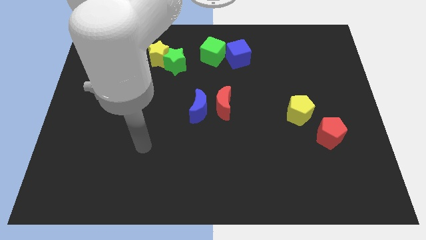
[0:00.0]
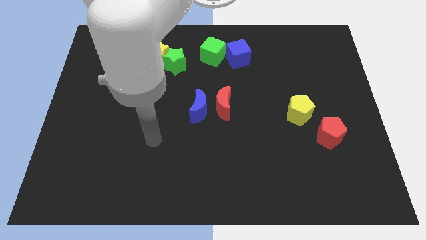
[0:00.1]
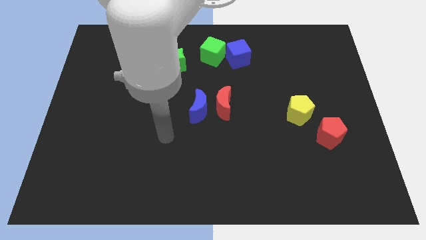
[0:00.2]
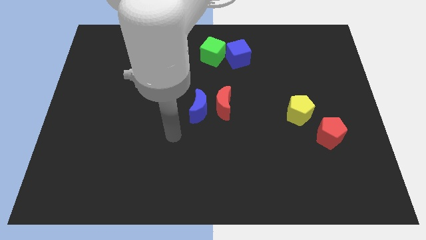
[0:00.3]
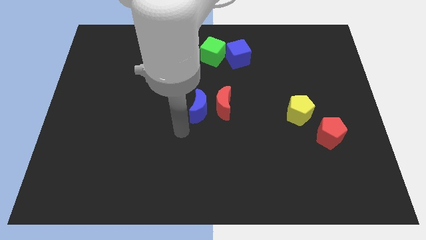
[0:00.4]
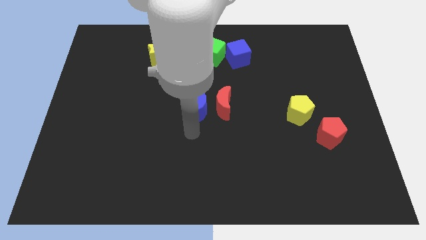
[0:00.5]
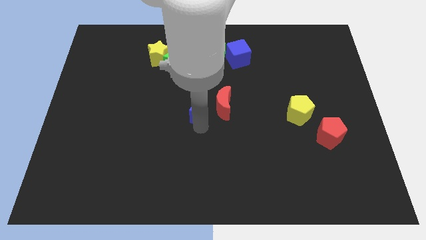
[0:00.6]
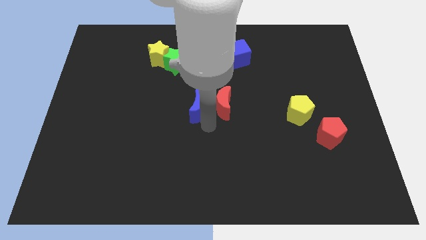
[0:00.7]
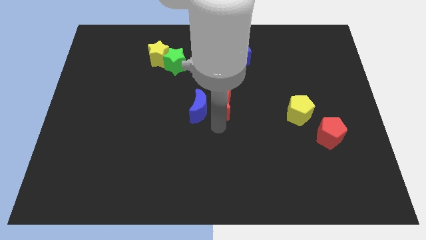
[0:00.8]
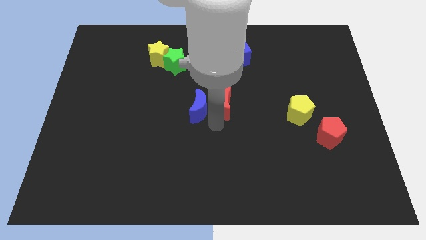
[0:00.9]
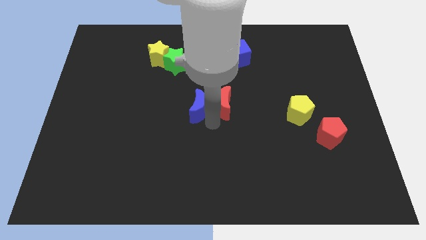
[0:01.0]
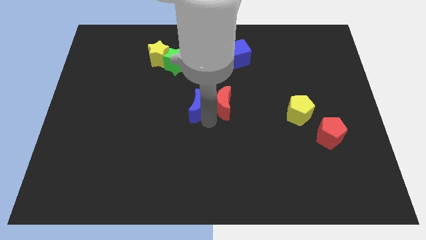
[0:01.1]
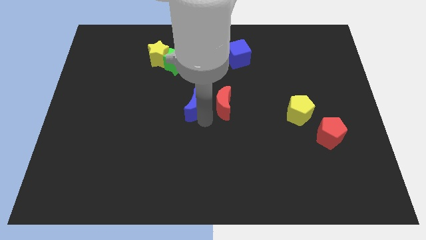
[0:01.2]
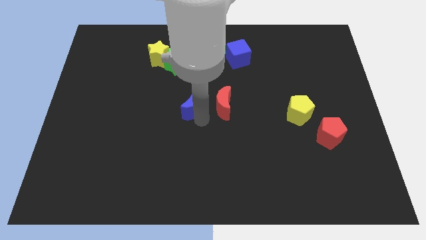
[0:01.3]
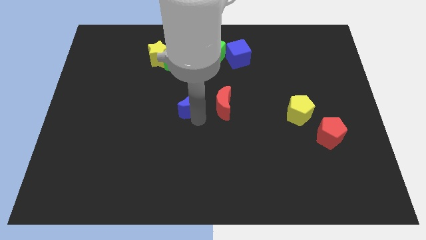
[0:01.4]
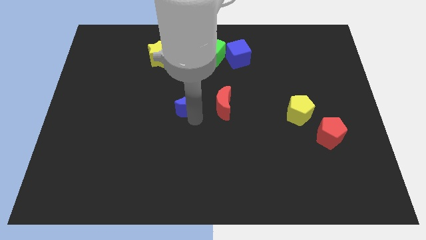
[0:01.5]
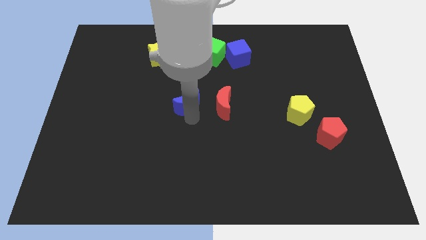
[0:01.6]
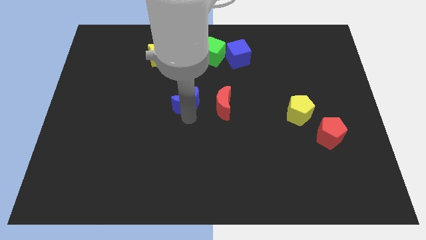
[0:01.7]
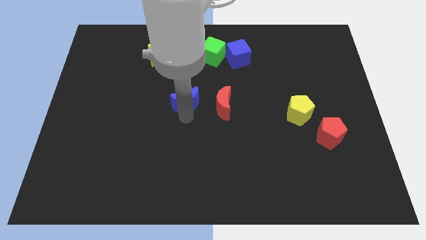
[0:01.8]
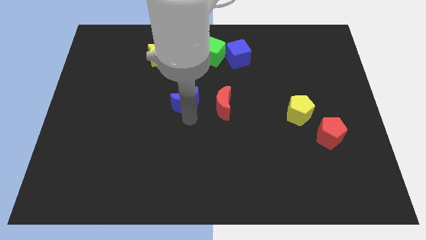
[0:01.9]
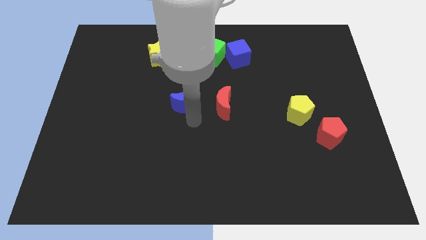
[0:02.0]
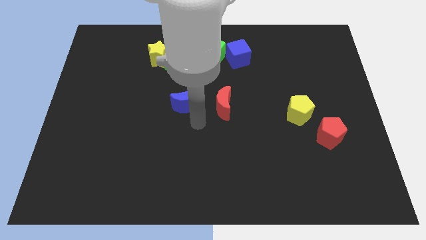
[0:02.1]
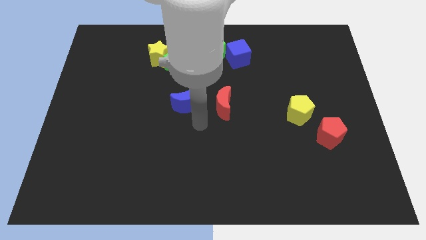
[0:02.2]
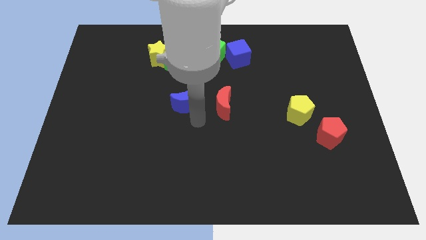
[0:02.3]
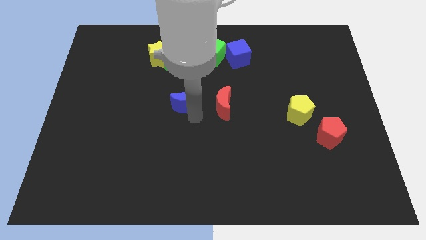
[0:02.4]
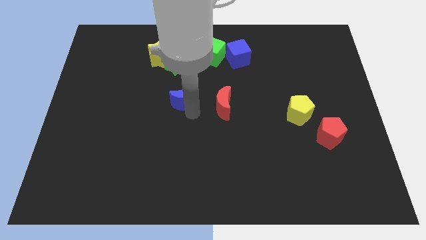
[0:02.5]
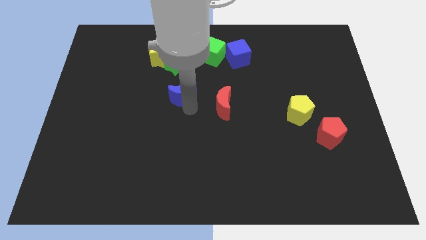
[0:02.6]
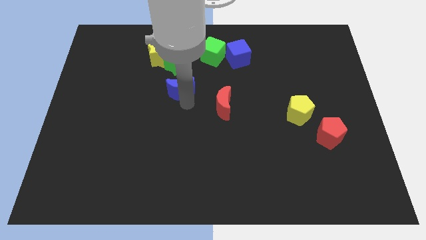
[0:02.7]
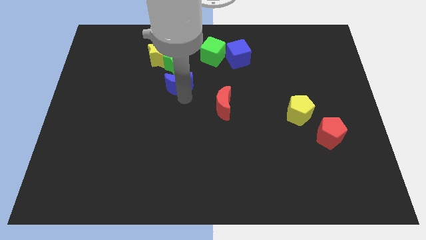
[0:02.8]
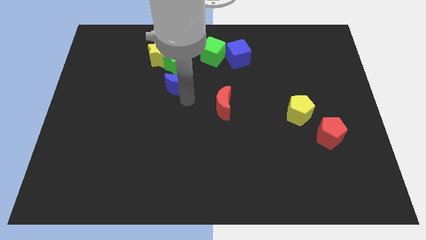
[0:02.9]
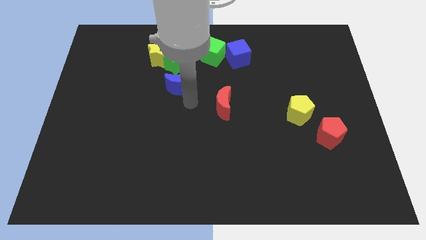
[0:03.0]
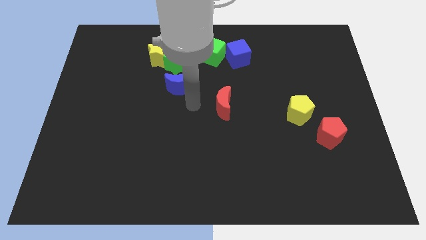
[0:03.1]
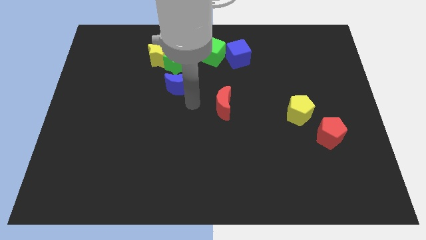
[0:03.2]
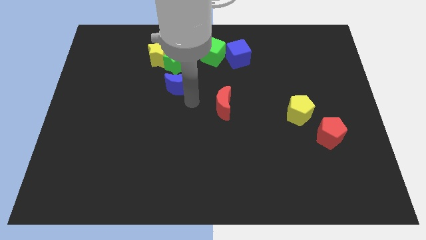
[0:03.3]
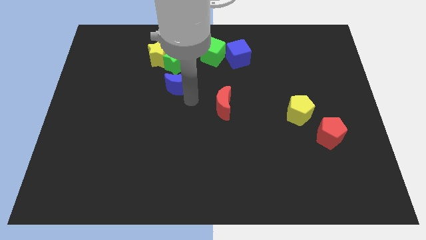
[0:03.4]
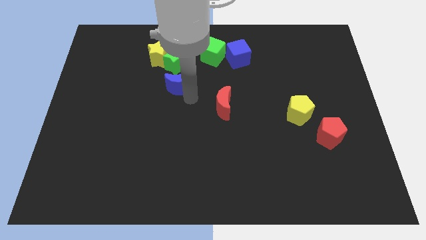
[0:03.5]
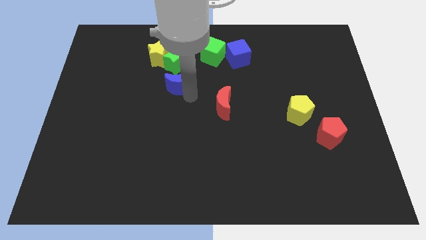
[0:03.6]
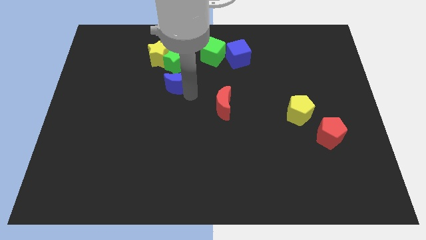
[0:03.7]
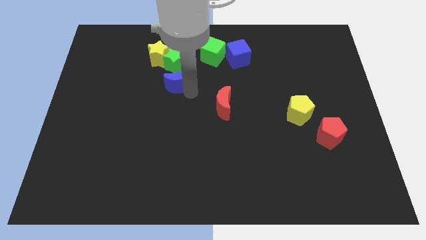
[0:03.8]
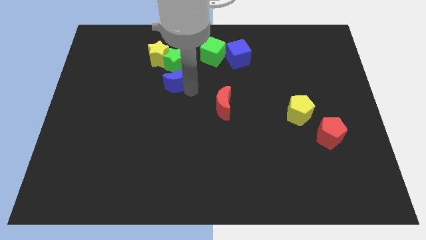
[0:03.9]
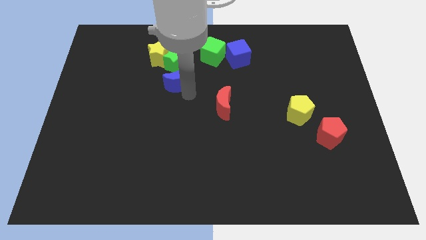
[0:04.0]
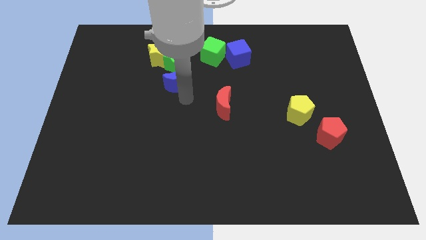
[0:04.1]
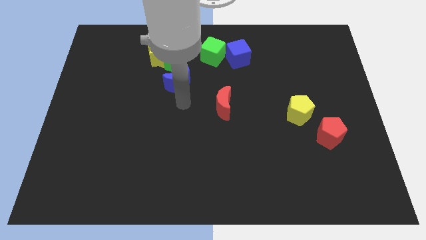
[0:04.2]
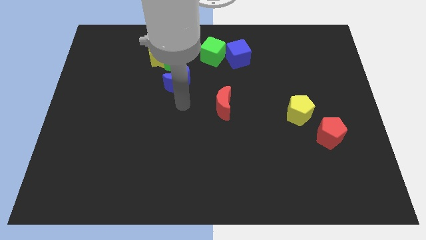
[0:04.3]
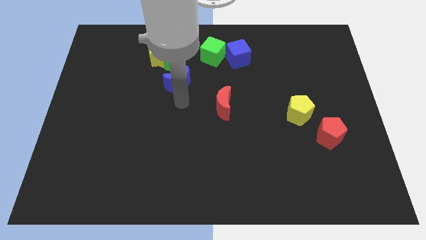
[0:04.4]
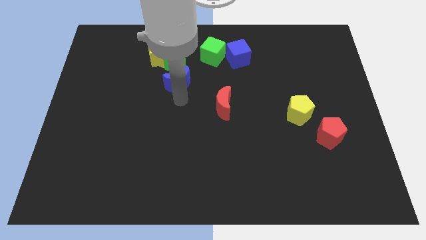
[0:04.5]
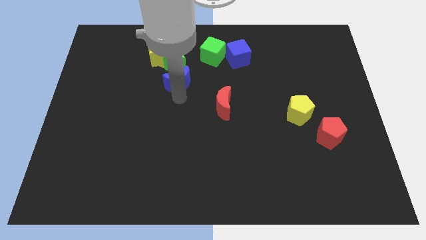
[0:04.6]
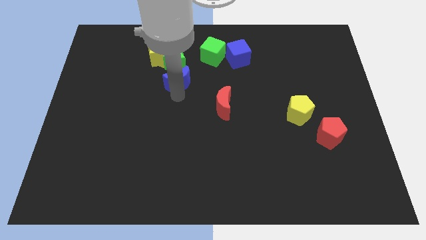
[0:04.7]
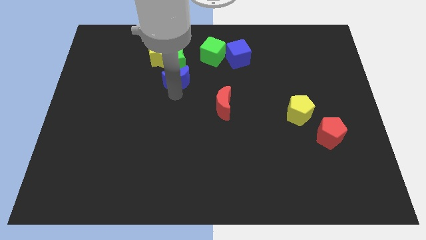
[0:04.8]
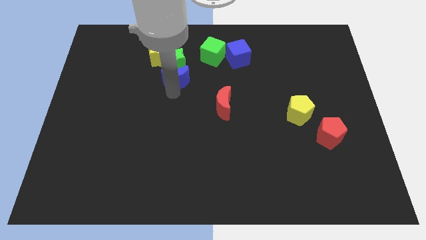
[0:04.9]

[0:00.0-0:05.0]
slide the blue moon next to the green star

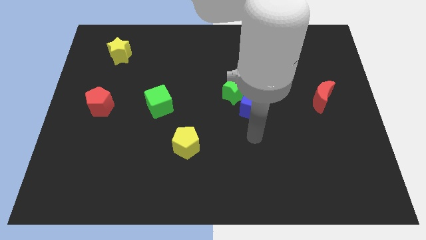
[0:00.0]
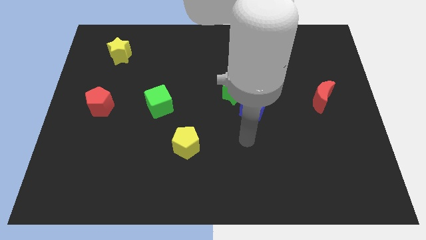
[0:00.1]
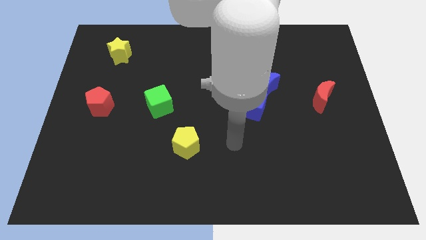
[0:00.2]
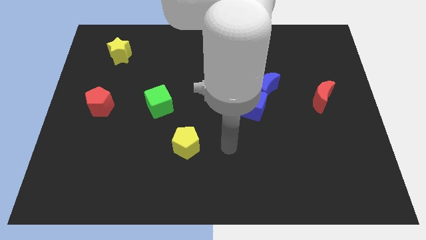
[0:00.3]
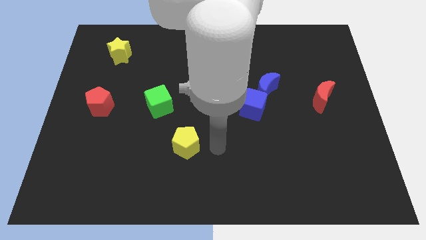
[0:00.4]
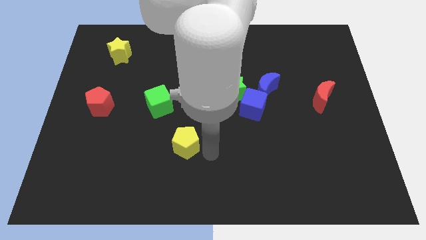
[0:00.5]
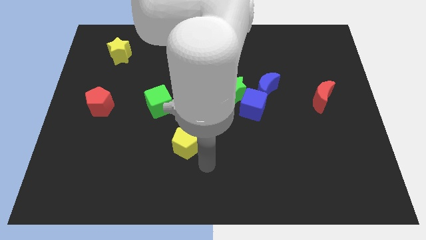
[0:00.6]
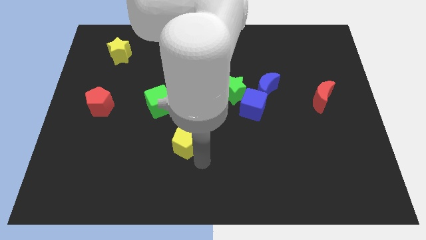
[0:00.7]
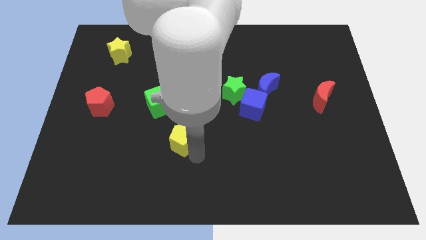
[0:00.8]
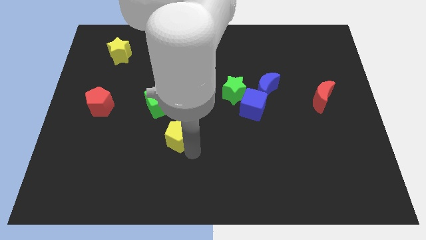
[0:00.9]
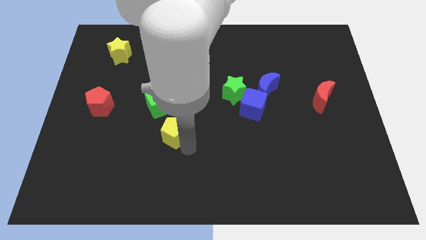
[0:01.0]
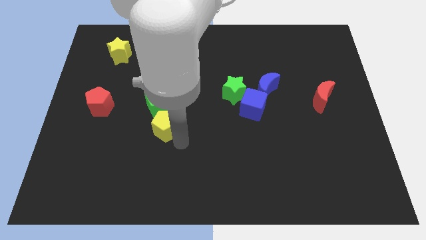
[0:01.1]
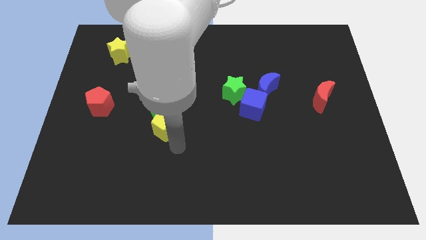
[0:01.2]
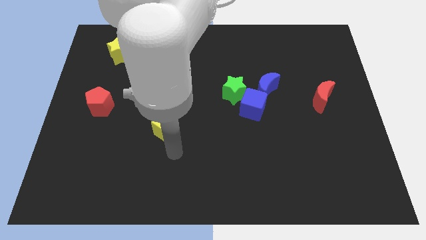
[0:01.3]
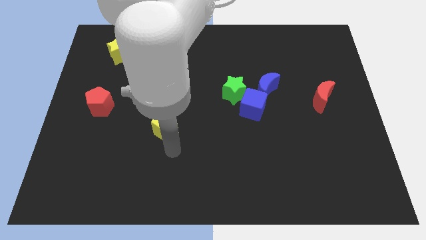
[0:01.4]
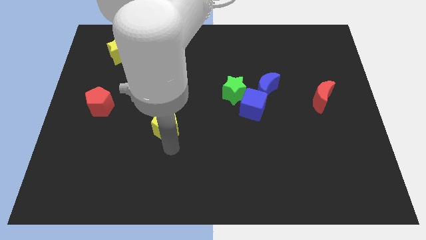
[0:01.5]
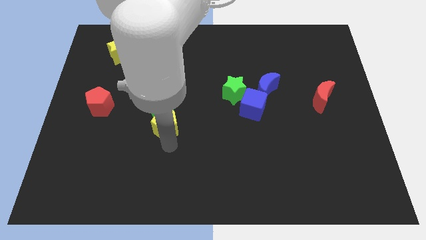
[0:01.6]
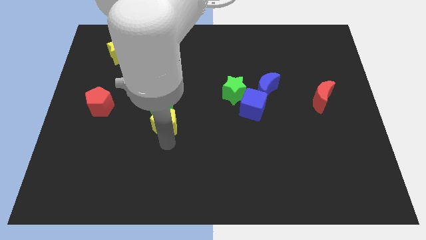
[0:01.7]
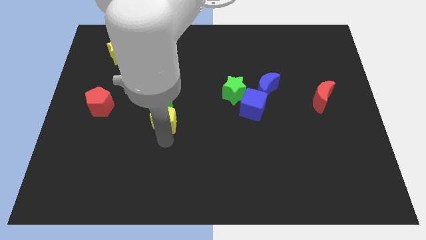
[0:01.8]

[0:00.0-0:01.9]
push the yellow pentagon close to the green cube

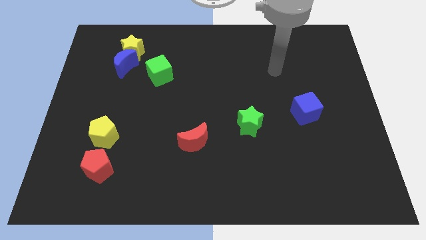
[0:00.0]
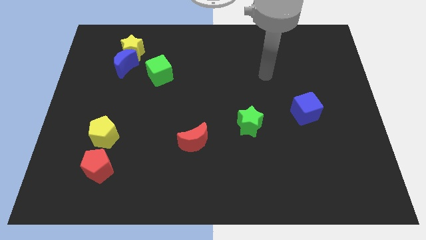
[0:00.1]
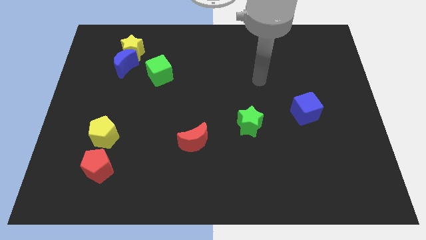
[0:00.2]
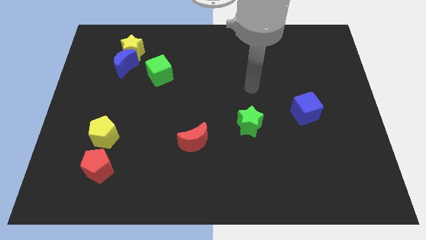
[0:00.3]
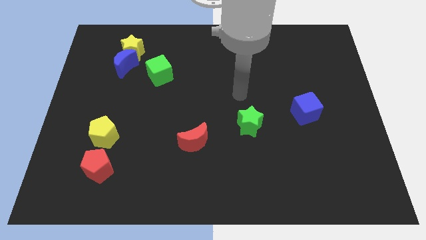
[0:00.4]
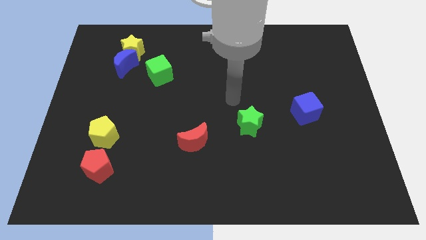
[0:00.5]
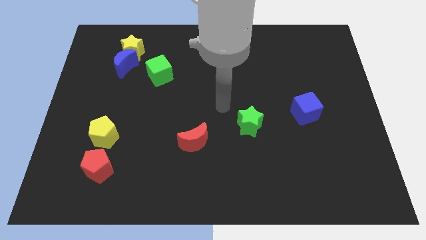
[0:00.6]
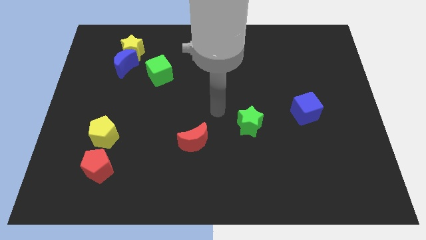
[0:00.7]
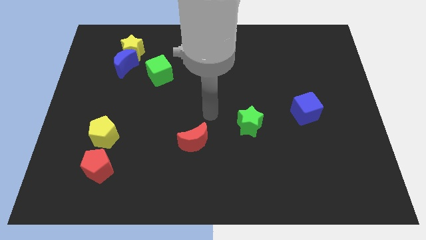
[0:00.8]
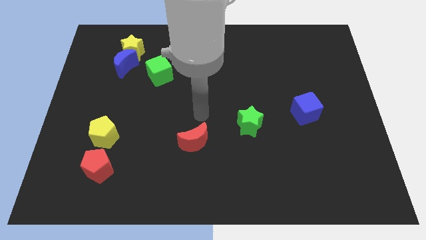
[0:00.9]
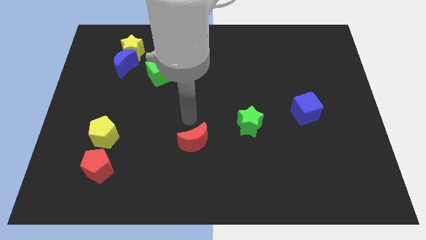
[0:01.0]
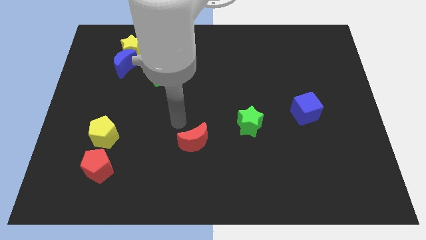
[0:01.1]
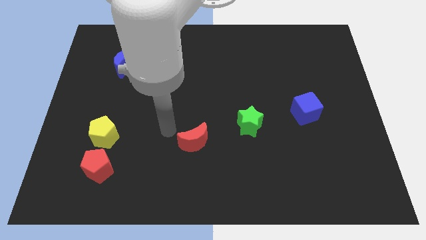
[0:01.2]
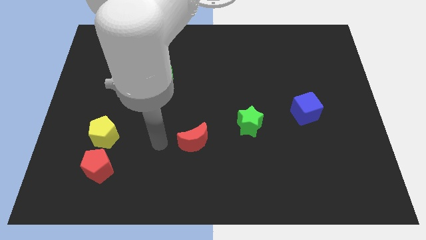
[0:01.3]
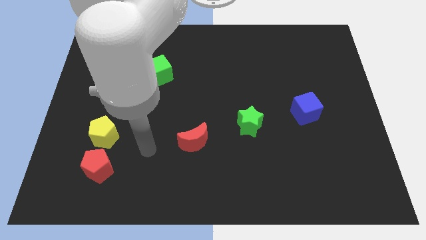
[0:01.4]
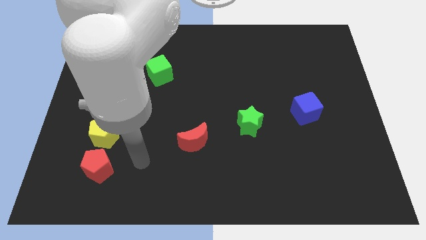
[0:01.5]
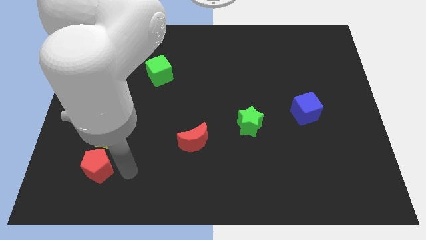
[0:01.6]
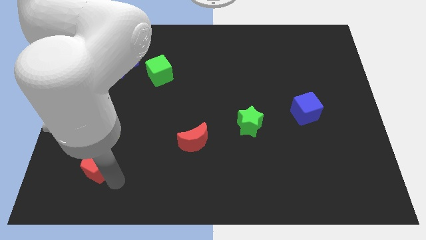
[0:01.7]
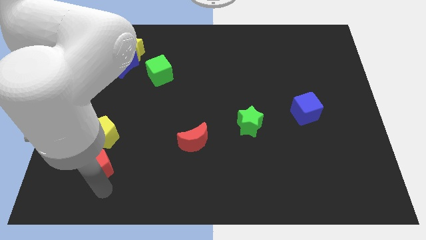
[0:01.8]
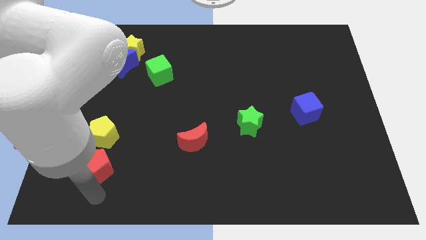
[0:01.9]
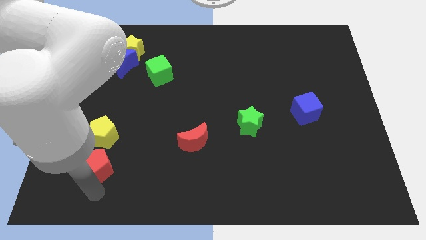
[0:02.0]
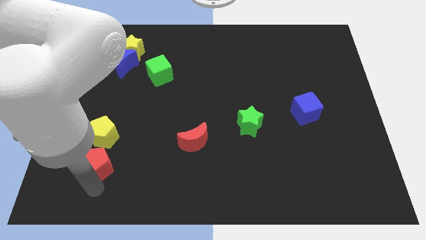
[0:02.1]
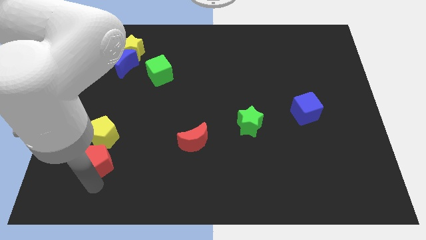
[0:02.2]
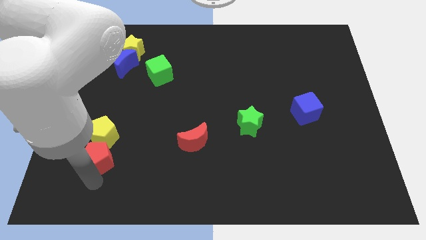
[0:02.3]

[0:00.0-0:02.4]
push the red pentagon to the yellow pentagon
